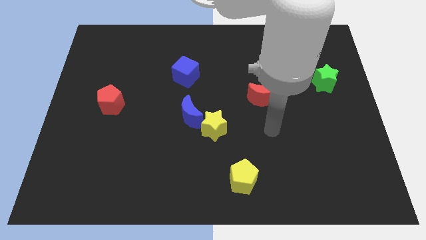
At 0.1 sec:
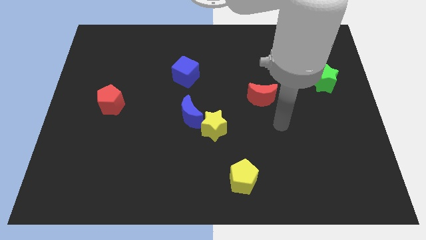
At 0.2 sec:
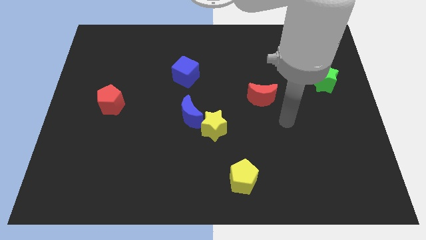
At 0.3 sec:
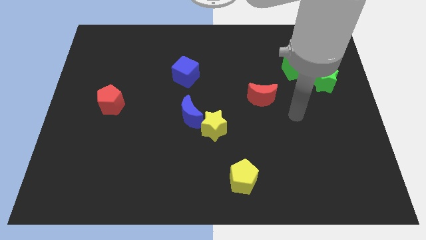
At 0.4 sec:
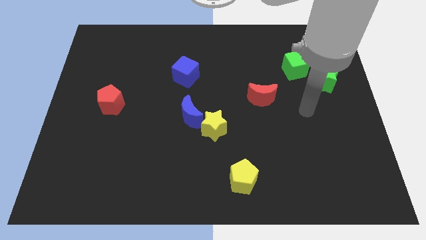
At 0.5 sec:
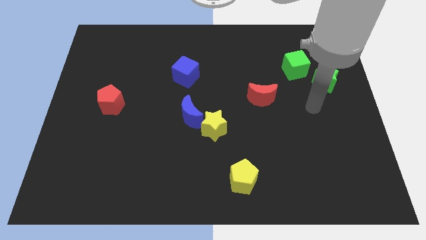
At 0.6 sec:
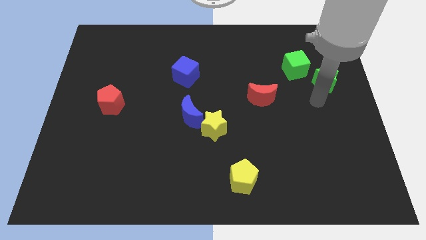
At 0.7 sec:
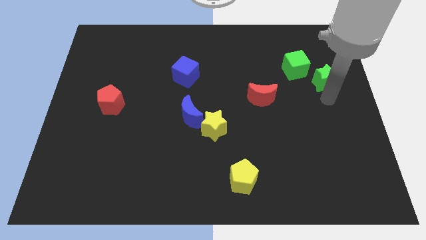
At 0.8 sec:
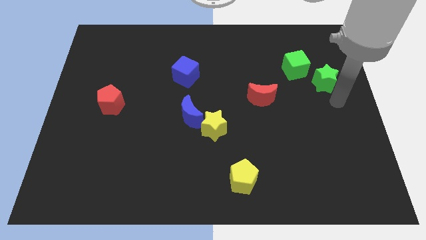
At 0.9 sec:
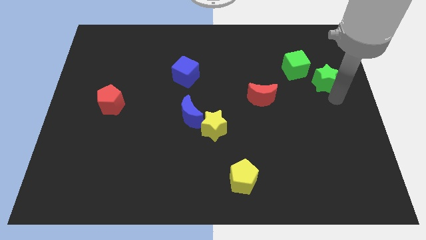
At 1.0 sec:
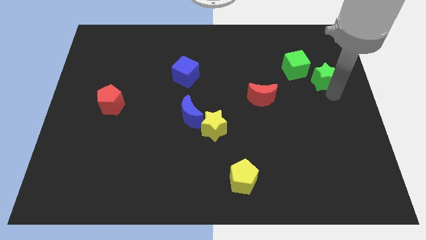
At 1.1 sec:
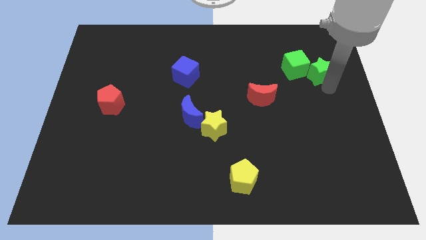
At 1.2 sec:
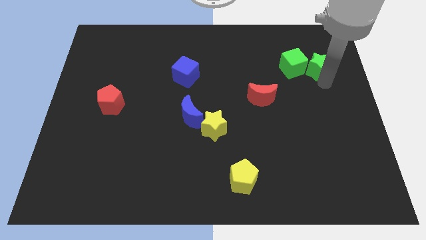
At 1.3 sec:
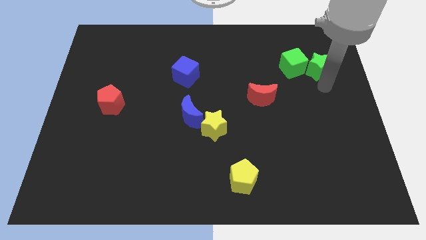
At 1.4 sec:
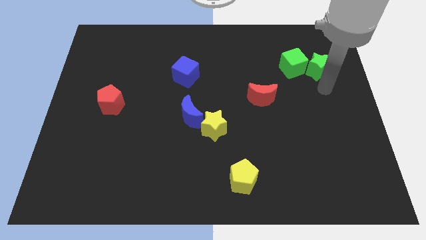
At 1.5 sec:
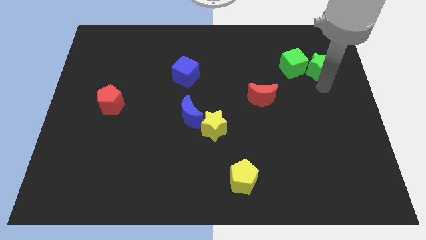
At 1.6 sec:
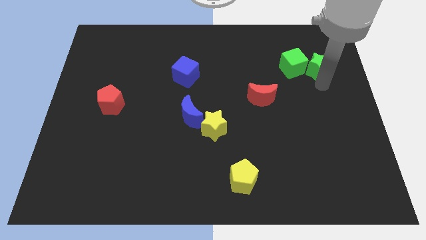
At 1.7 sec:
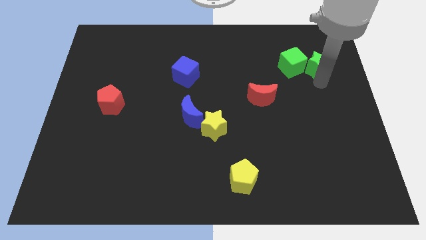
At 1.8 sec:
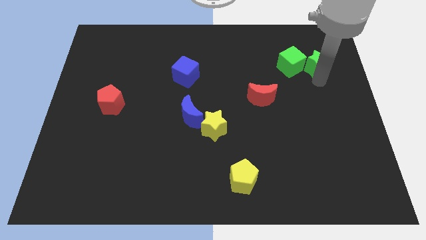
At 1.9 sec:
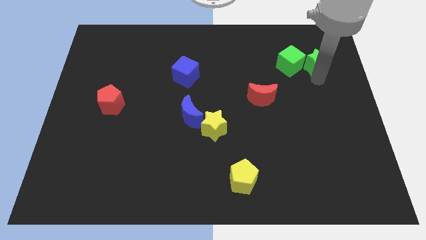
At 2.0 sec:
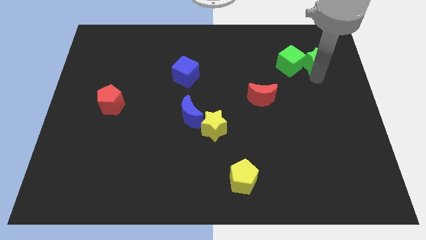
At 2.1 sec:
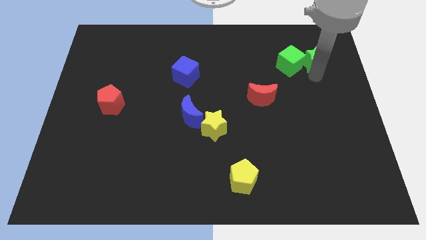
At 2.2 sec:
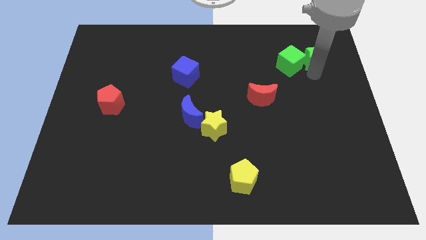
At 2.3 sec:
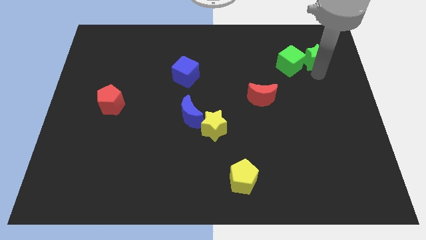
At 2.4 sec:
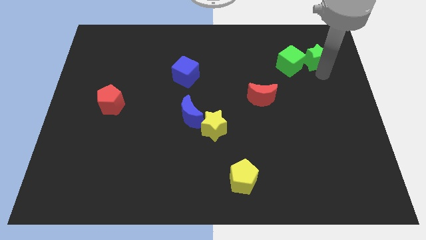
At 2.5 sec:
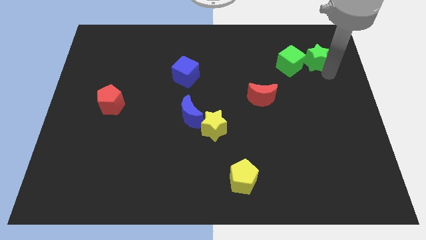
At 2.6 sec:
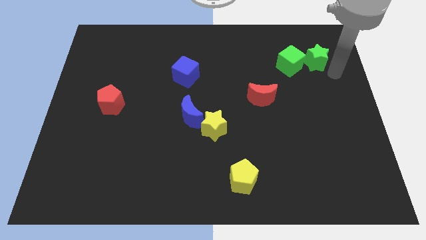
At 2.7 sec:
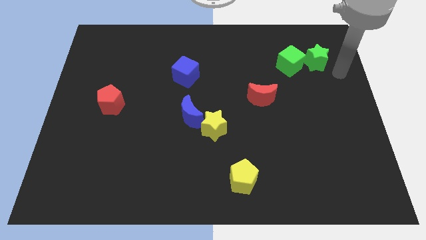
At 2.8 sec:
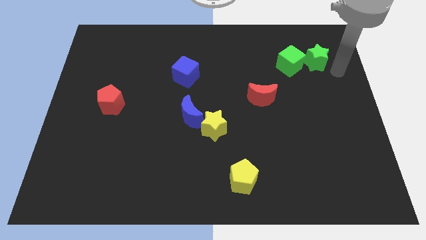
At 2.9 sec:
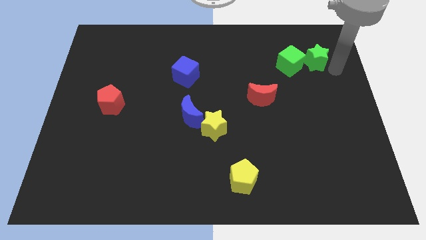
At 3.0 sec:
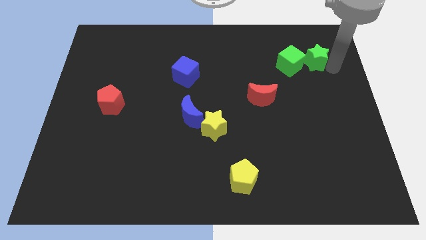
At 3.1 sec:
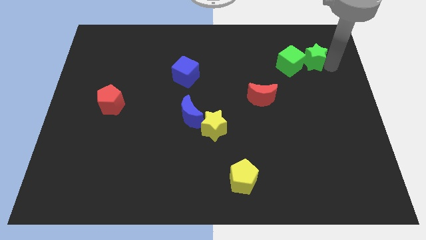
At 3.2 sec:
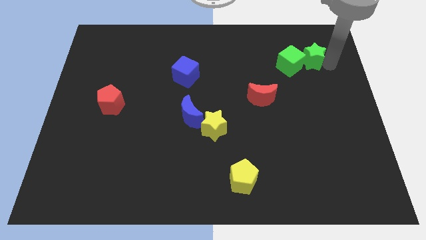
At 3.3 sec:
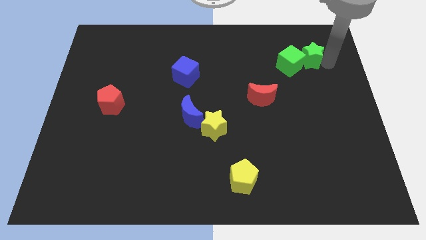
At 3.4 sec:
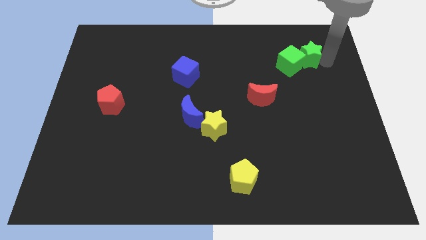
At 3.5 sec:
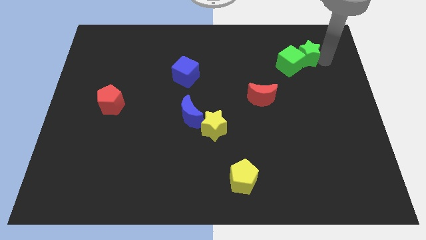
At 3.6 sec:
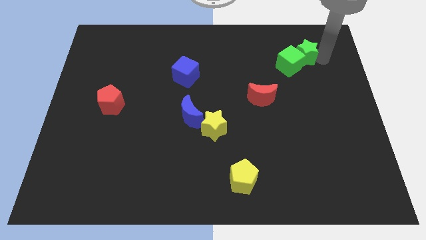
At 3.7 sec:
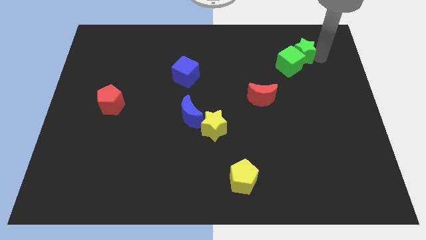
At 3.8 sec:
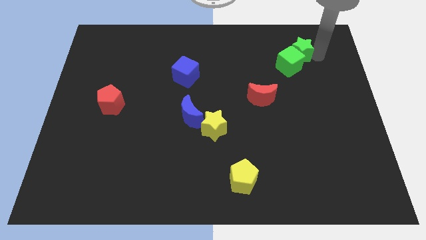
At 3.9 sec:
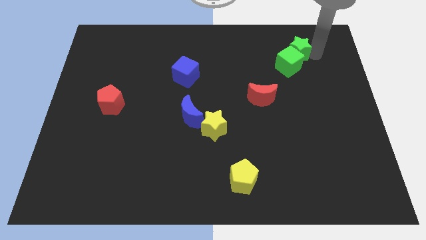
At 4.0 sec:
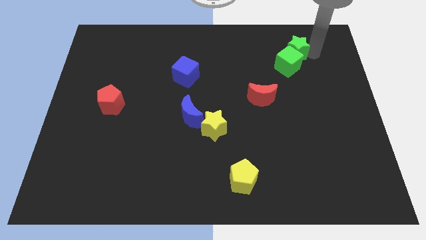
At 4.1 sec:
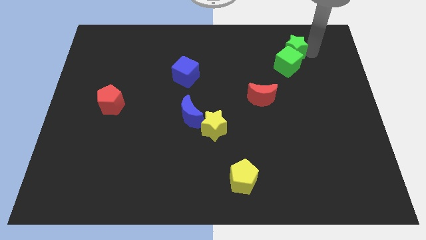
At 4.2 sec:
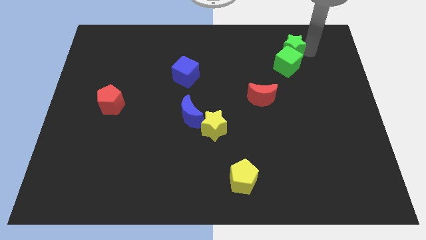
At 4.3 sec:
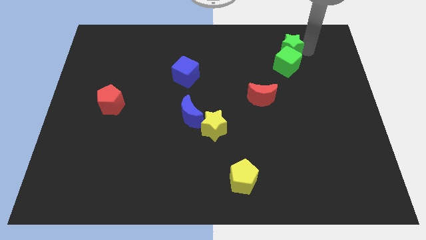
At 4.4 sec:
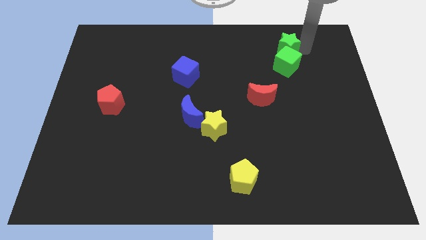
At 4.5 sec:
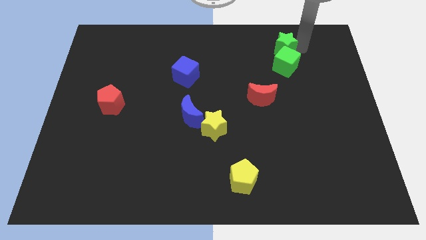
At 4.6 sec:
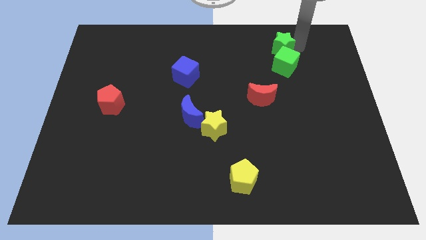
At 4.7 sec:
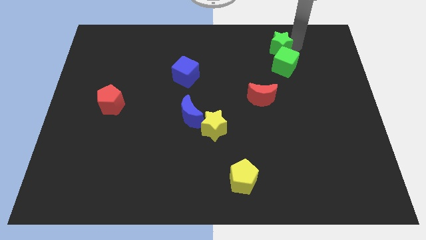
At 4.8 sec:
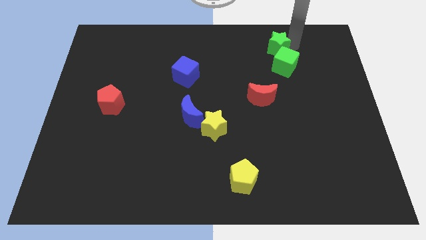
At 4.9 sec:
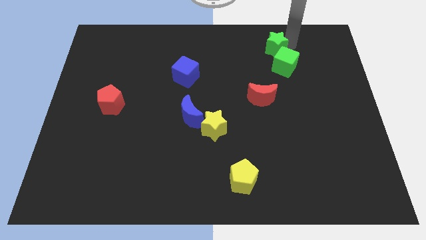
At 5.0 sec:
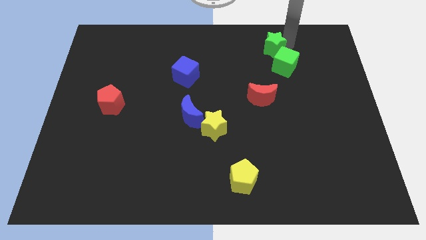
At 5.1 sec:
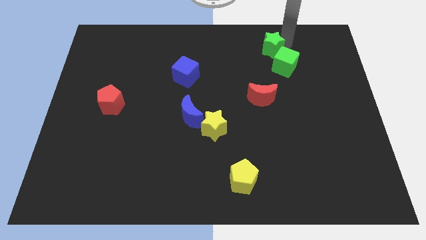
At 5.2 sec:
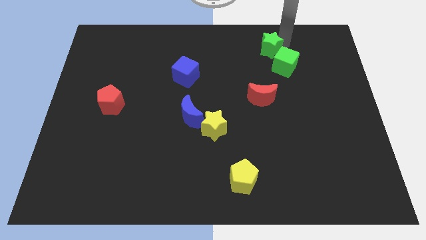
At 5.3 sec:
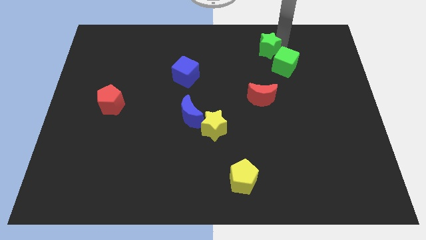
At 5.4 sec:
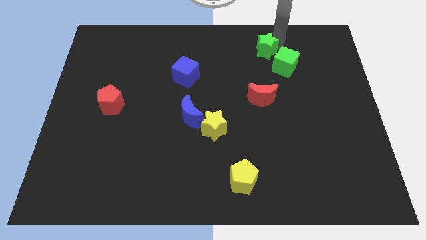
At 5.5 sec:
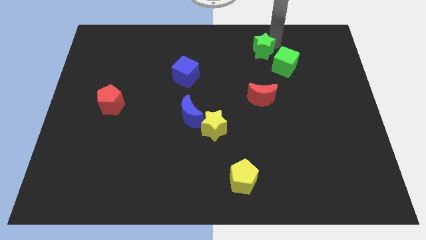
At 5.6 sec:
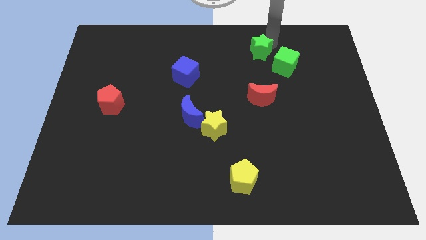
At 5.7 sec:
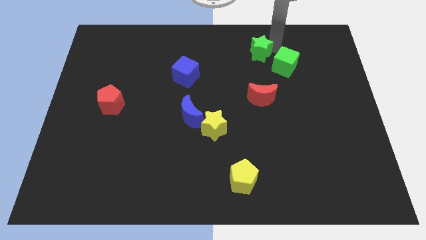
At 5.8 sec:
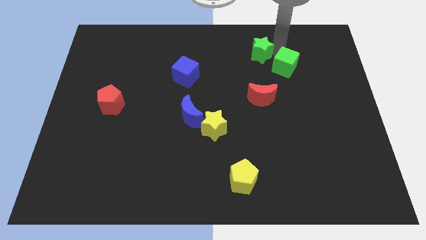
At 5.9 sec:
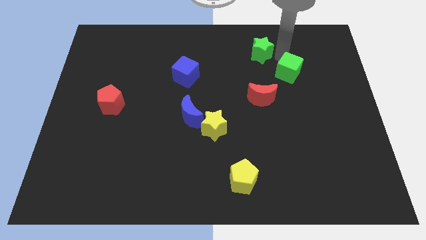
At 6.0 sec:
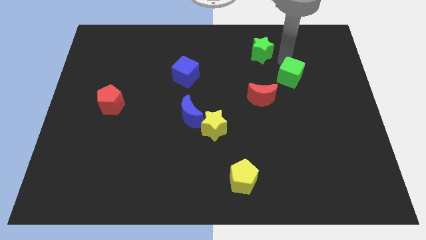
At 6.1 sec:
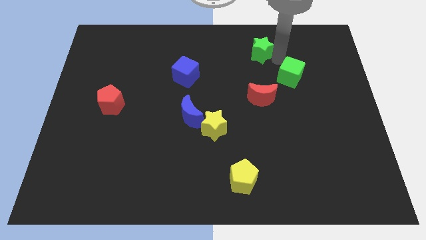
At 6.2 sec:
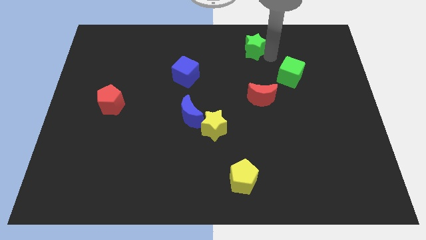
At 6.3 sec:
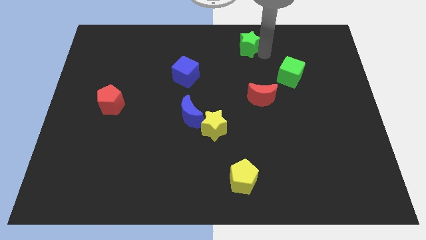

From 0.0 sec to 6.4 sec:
put the green star to the towards your base

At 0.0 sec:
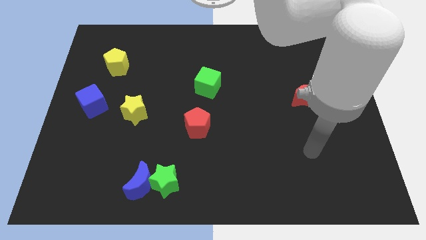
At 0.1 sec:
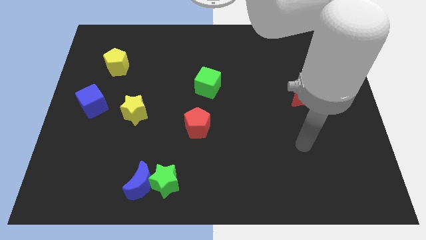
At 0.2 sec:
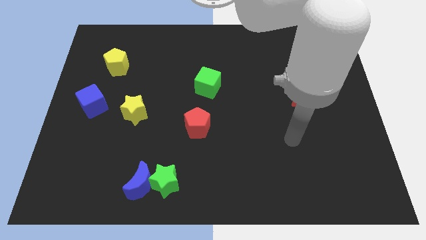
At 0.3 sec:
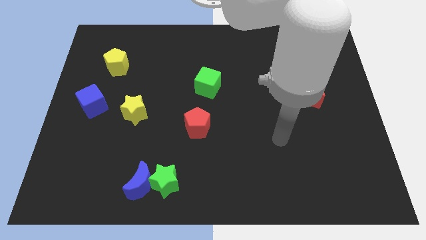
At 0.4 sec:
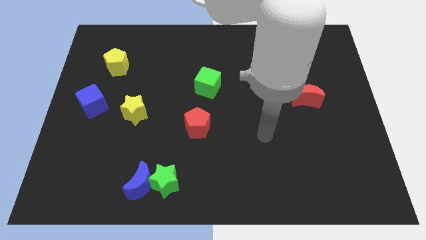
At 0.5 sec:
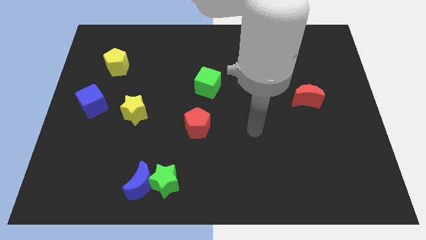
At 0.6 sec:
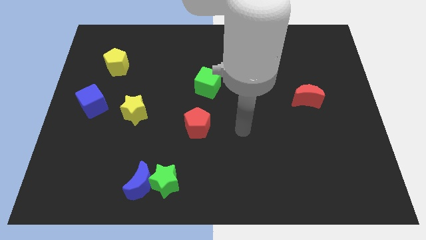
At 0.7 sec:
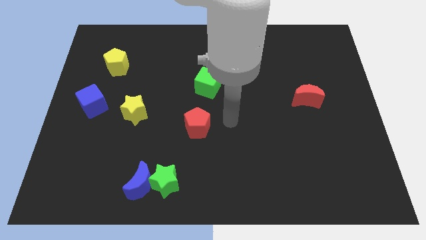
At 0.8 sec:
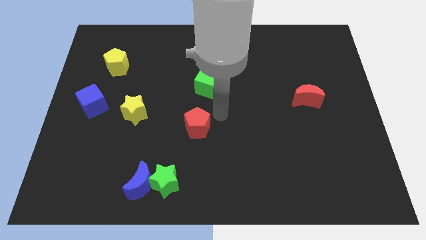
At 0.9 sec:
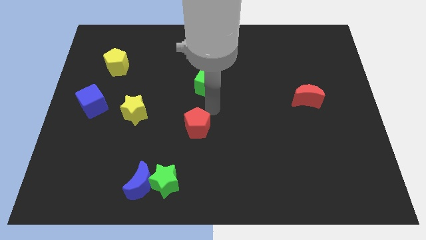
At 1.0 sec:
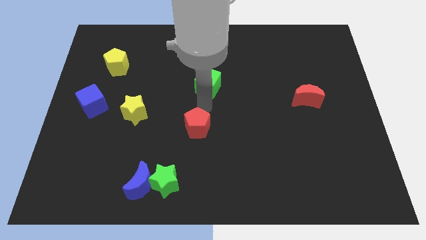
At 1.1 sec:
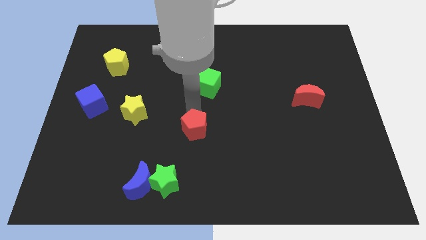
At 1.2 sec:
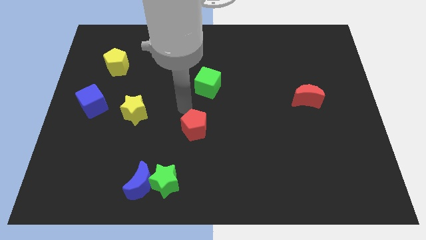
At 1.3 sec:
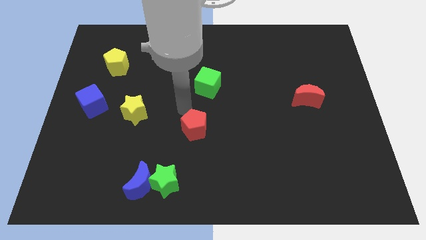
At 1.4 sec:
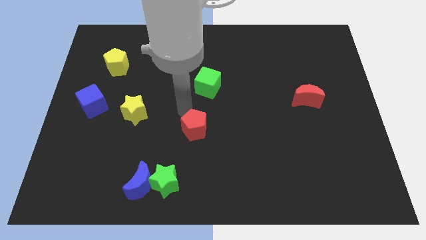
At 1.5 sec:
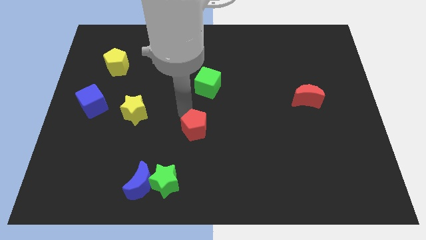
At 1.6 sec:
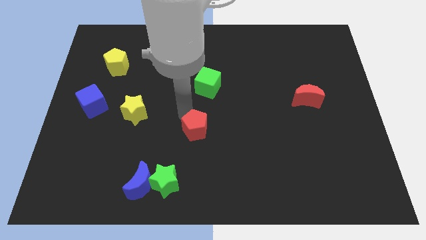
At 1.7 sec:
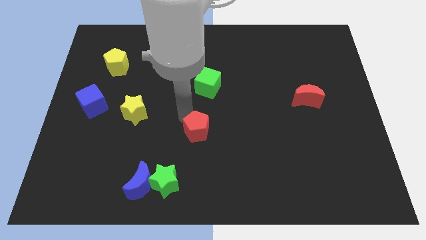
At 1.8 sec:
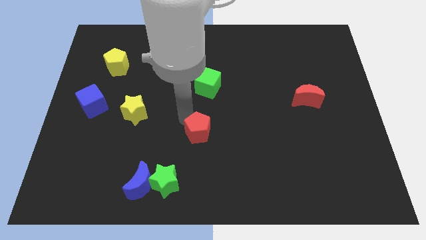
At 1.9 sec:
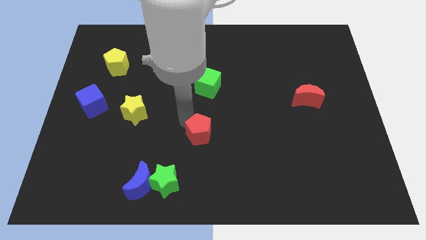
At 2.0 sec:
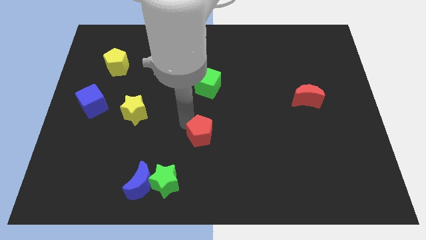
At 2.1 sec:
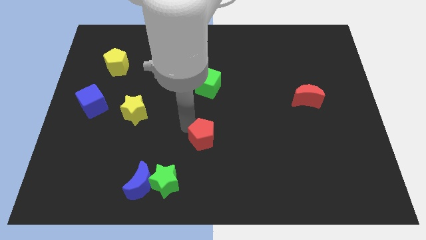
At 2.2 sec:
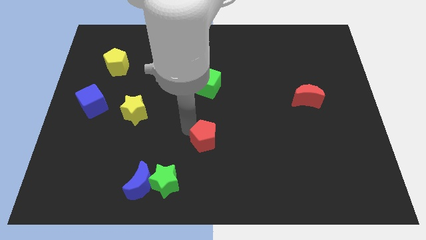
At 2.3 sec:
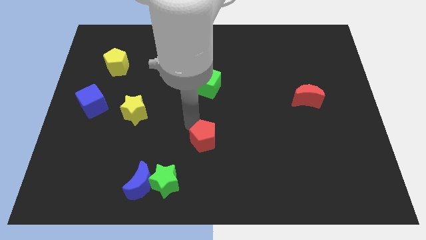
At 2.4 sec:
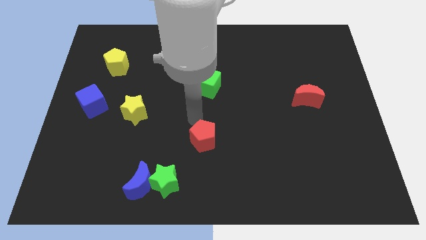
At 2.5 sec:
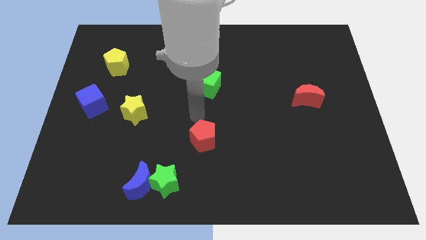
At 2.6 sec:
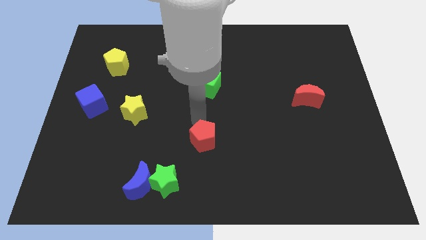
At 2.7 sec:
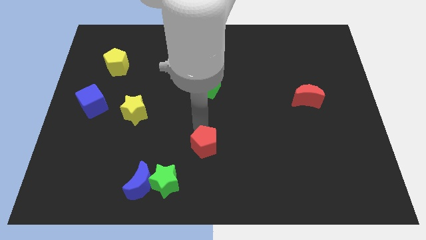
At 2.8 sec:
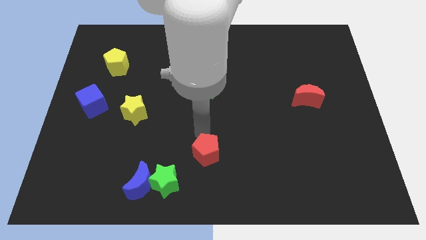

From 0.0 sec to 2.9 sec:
slide the red pentagon to the bottom side
